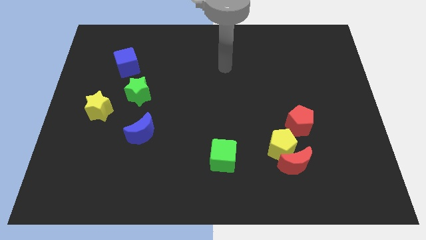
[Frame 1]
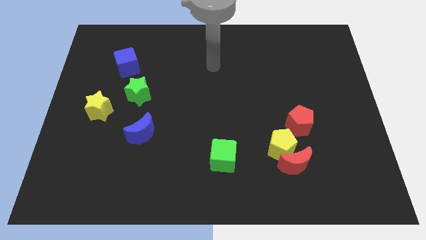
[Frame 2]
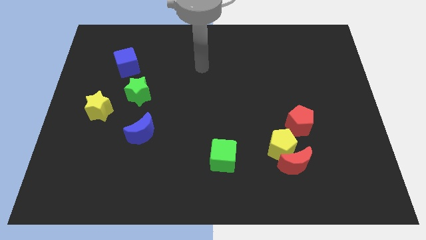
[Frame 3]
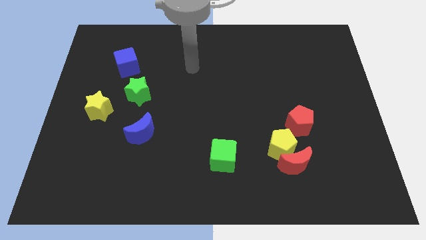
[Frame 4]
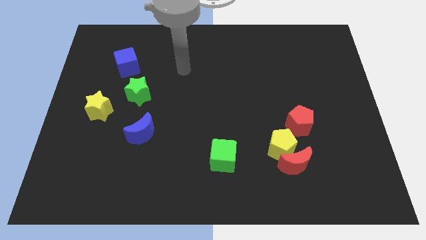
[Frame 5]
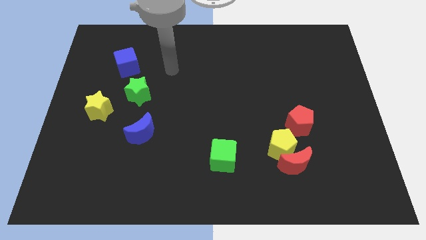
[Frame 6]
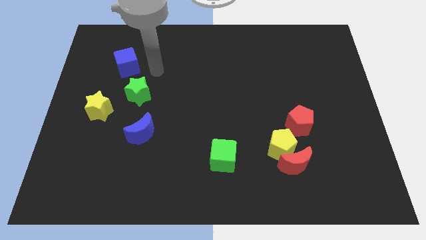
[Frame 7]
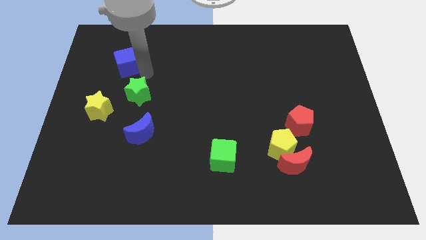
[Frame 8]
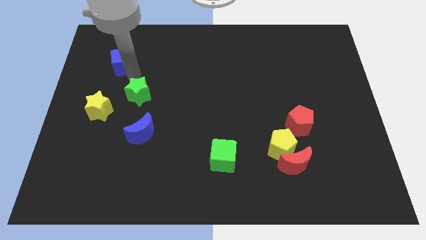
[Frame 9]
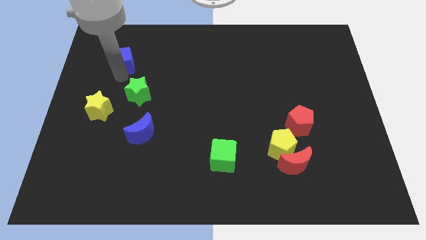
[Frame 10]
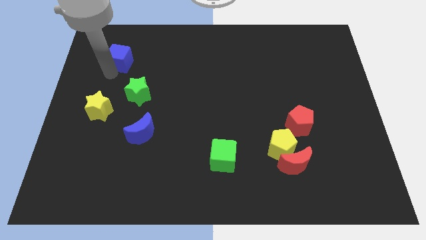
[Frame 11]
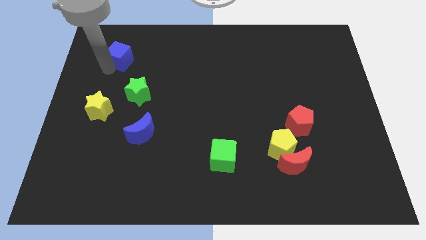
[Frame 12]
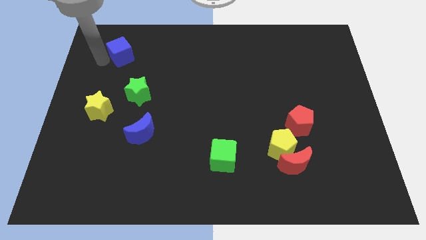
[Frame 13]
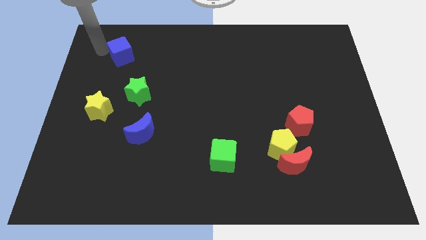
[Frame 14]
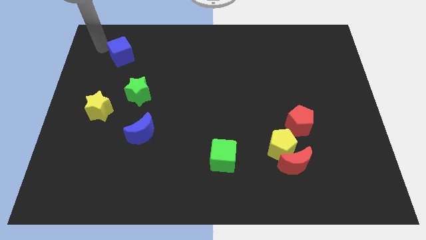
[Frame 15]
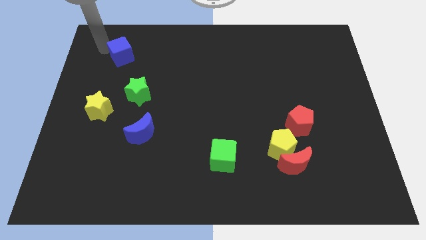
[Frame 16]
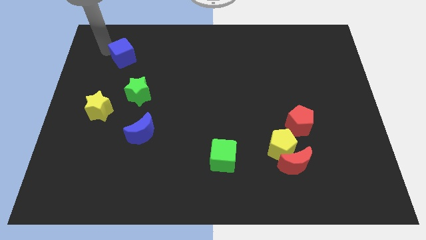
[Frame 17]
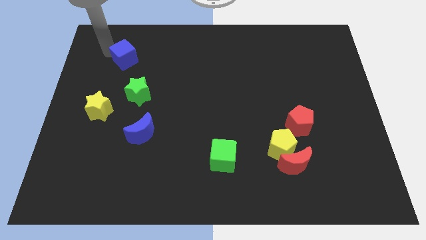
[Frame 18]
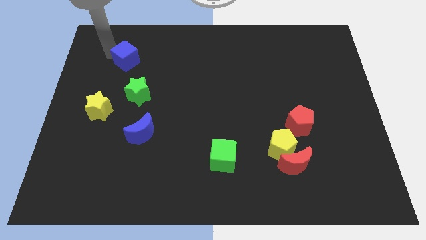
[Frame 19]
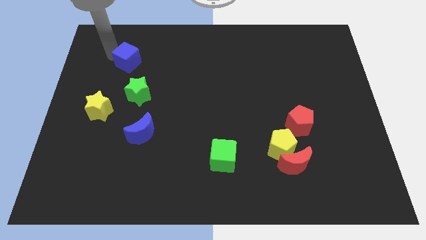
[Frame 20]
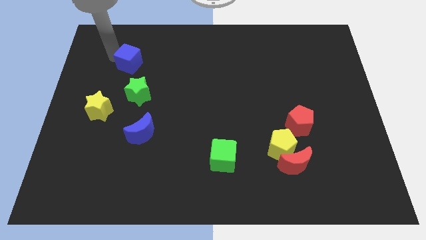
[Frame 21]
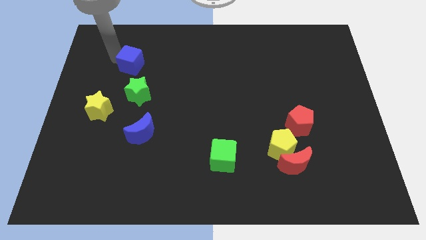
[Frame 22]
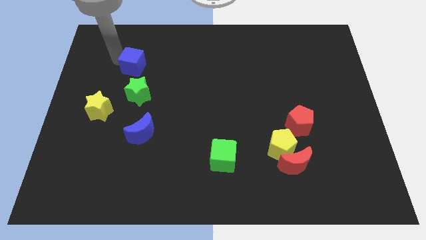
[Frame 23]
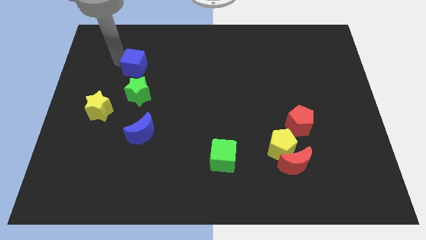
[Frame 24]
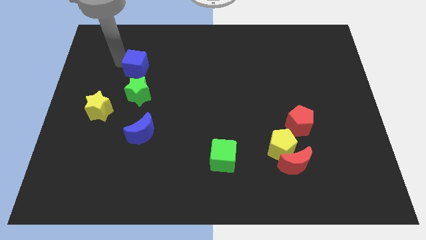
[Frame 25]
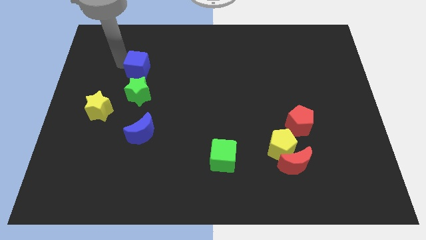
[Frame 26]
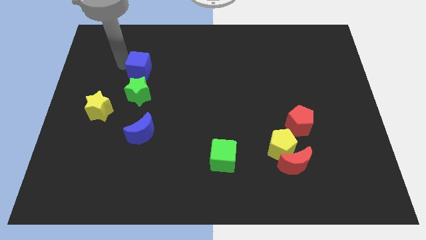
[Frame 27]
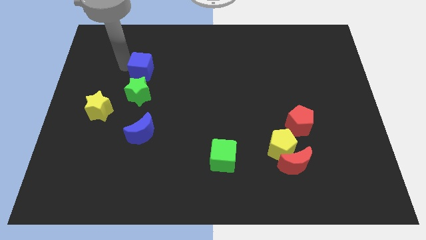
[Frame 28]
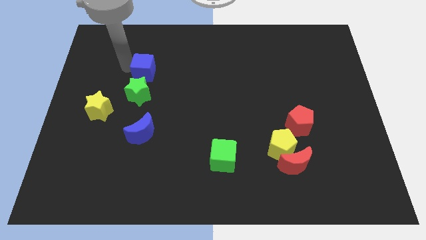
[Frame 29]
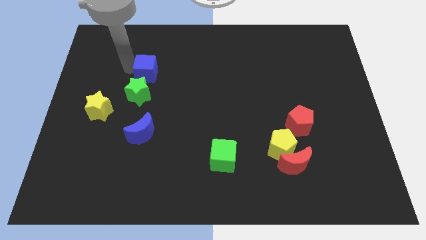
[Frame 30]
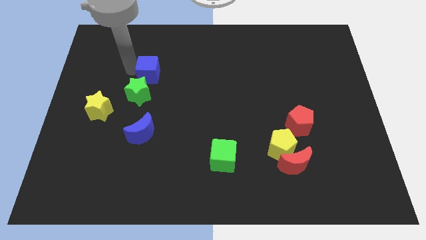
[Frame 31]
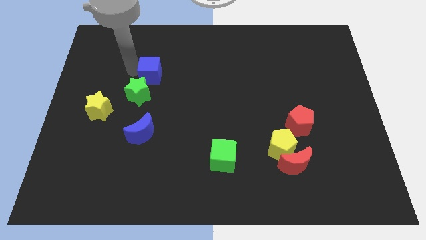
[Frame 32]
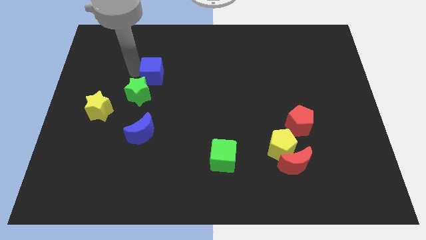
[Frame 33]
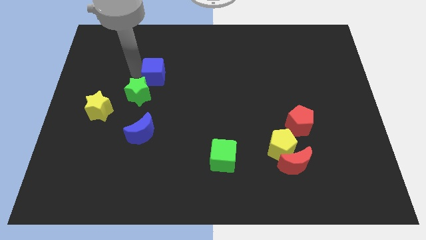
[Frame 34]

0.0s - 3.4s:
push the blue cube to the right a bit

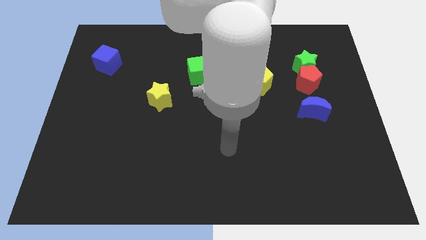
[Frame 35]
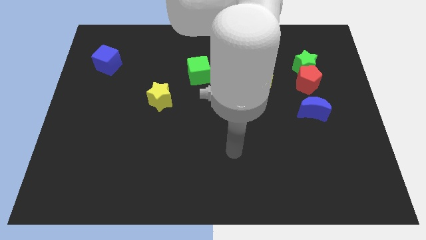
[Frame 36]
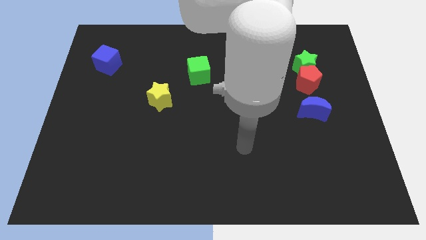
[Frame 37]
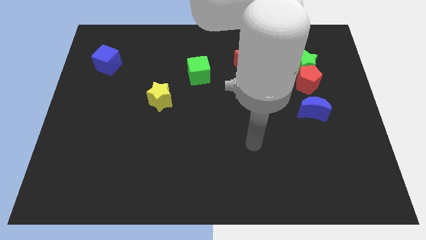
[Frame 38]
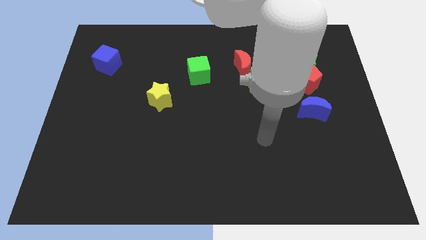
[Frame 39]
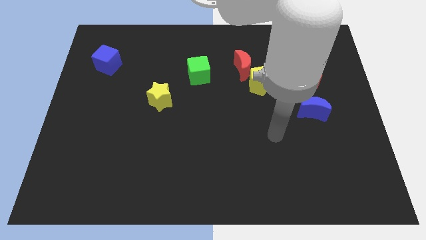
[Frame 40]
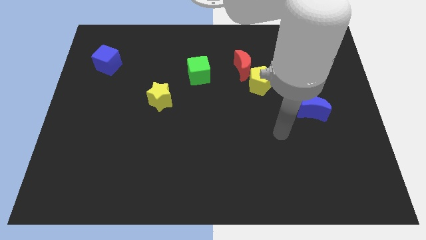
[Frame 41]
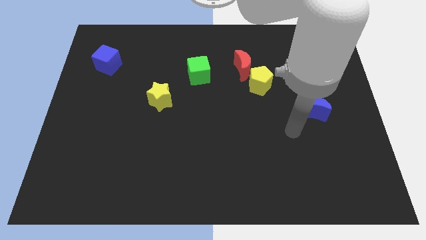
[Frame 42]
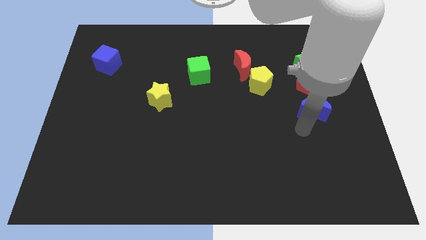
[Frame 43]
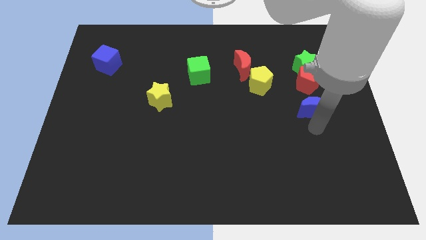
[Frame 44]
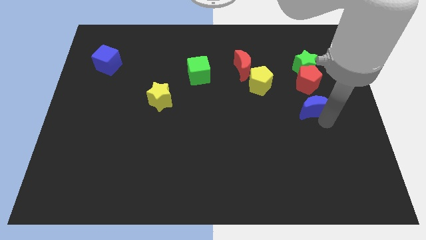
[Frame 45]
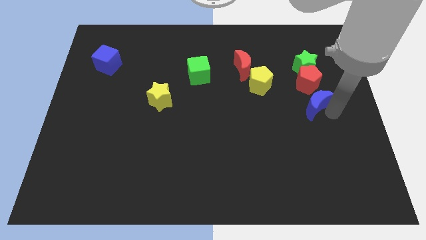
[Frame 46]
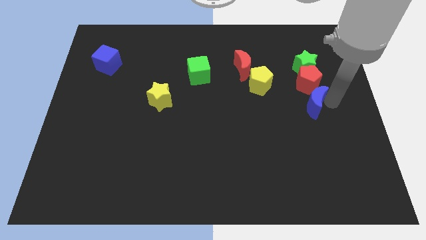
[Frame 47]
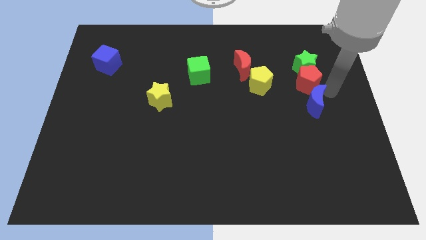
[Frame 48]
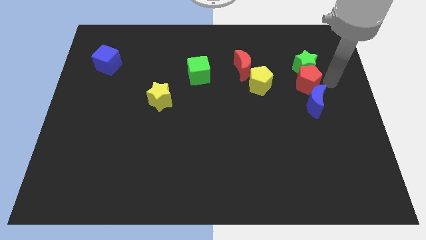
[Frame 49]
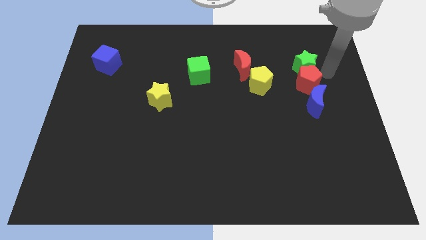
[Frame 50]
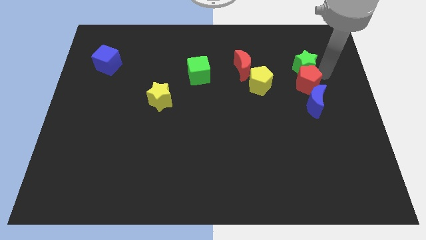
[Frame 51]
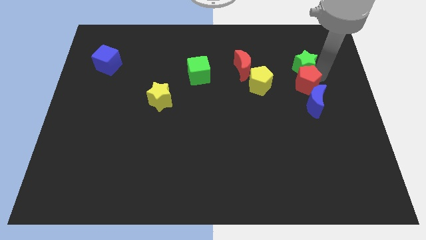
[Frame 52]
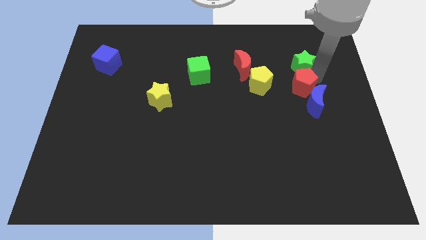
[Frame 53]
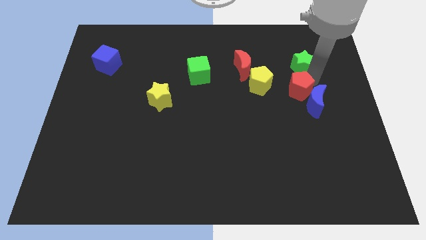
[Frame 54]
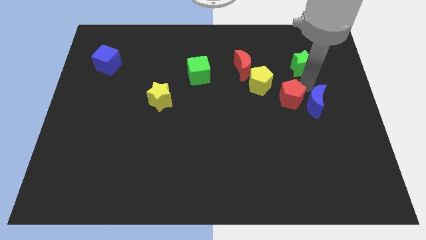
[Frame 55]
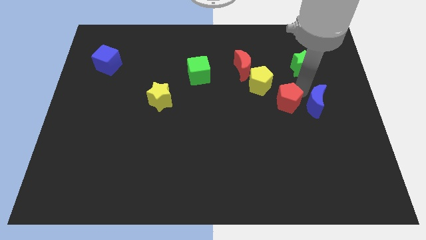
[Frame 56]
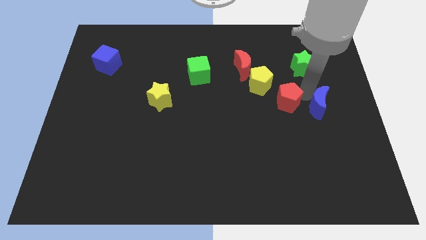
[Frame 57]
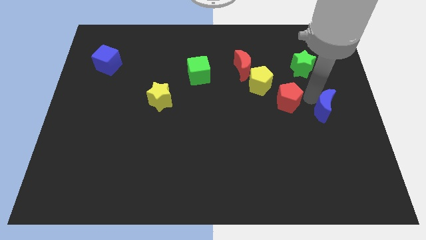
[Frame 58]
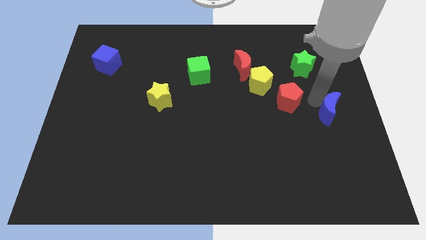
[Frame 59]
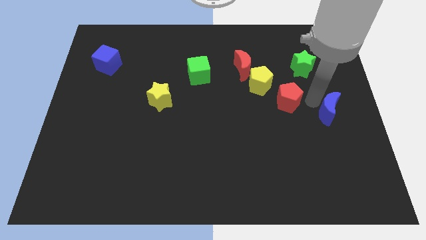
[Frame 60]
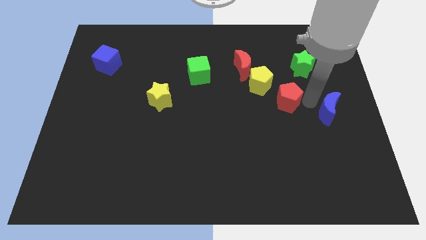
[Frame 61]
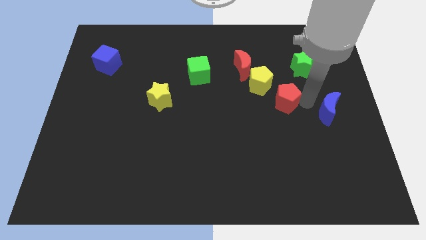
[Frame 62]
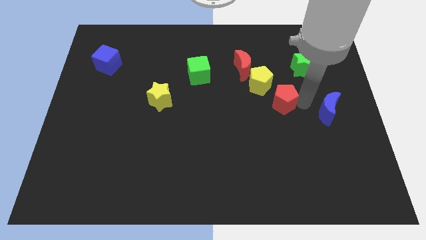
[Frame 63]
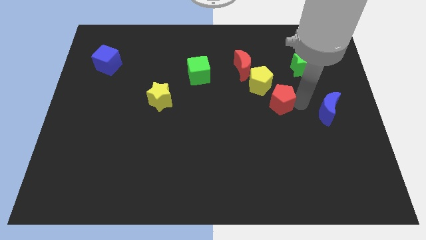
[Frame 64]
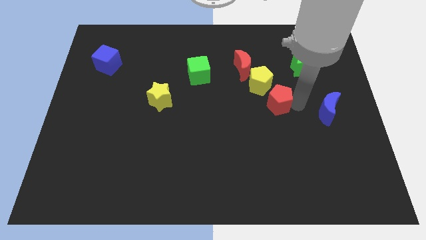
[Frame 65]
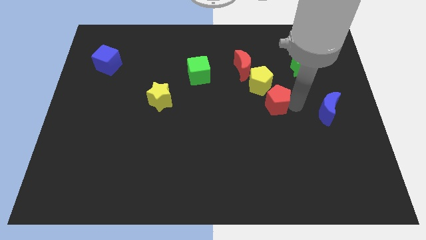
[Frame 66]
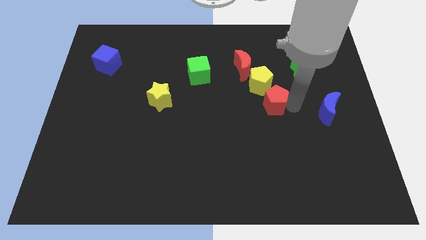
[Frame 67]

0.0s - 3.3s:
push the red pentagon left a bit

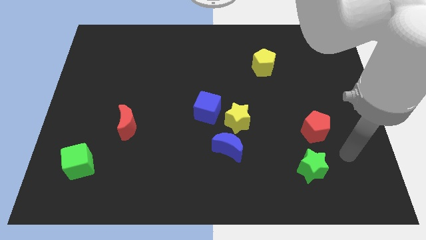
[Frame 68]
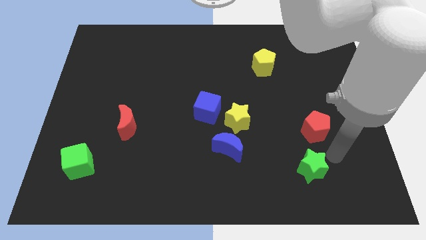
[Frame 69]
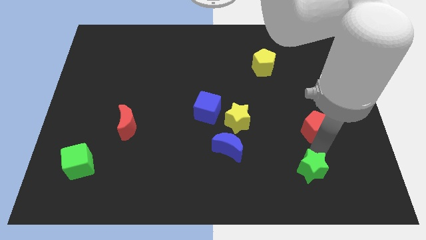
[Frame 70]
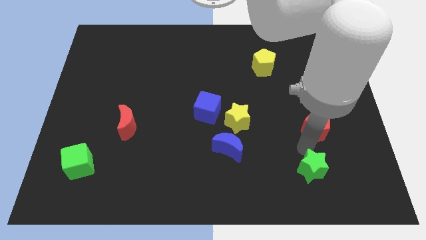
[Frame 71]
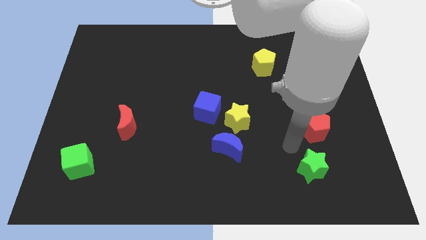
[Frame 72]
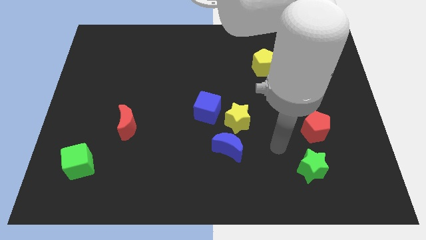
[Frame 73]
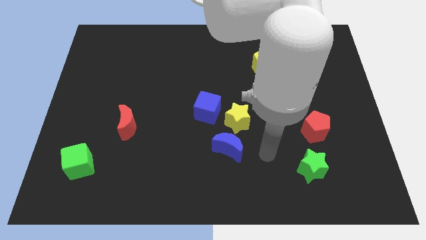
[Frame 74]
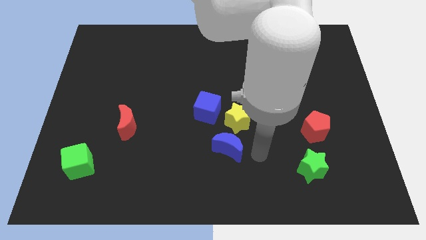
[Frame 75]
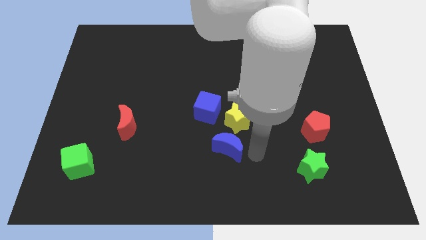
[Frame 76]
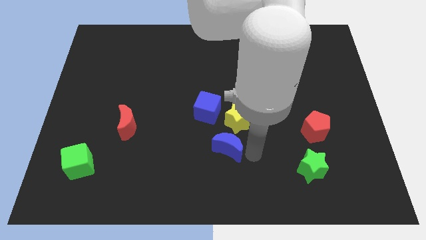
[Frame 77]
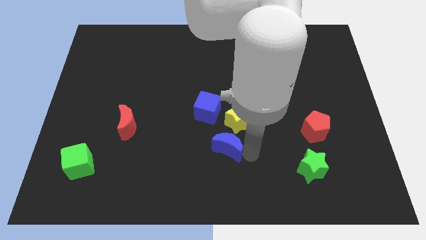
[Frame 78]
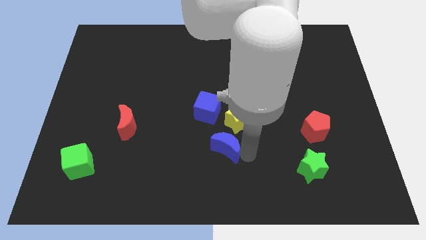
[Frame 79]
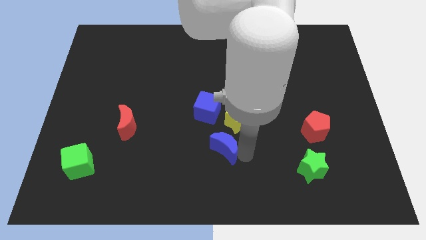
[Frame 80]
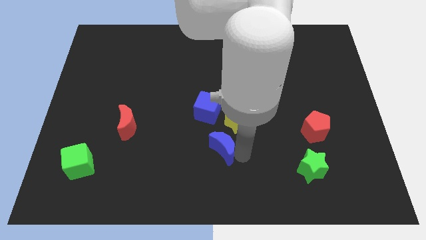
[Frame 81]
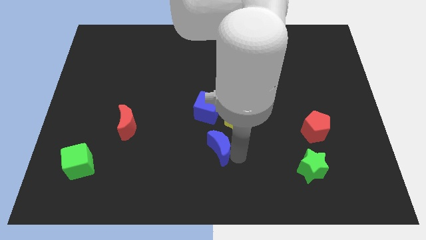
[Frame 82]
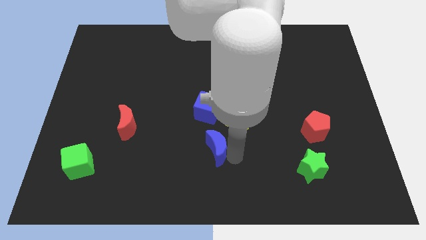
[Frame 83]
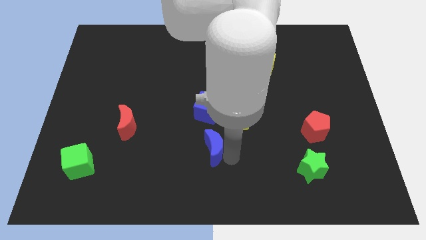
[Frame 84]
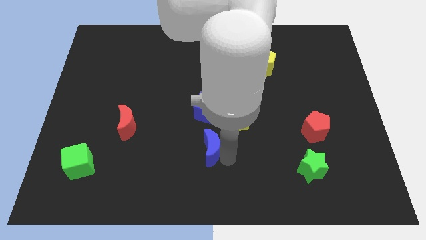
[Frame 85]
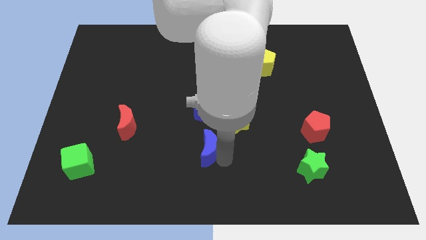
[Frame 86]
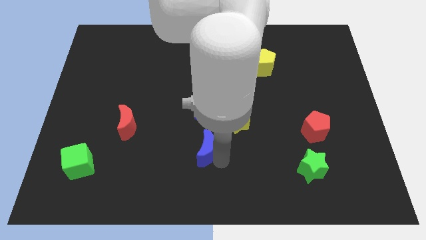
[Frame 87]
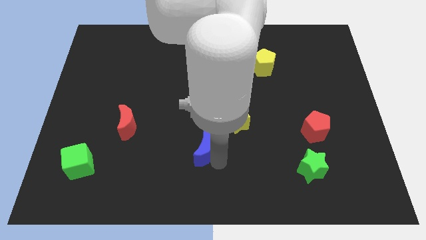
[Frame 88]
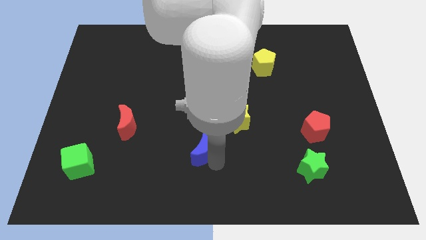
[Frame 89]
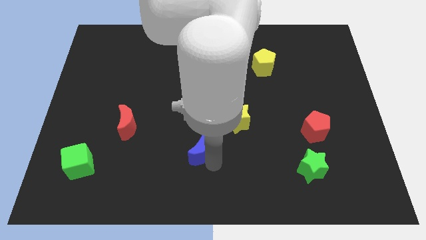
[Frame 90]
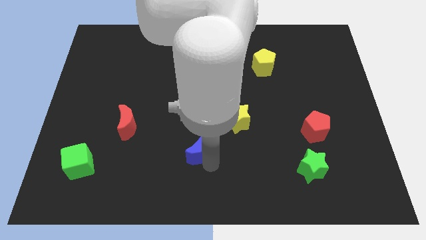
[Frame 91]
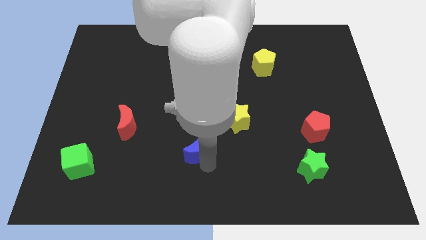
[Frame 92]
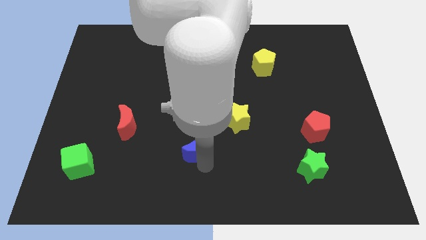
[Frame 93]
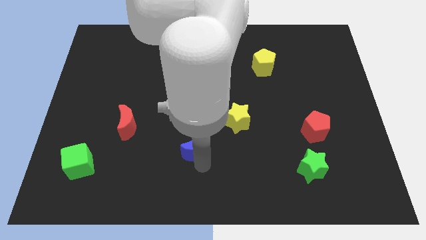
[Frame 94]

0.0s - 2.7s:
slightly push the blue moon left
